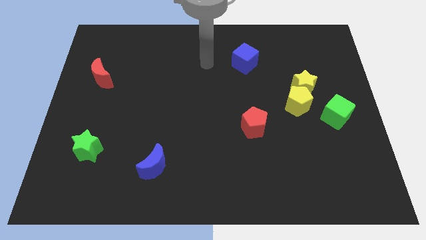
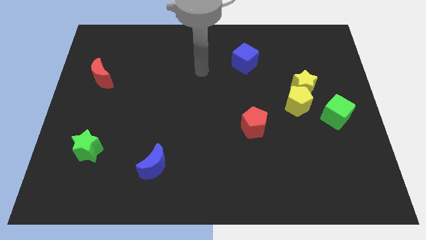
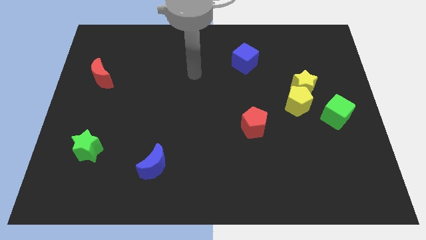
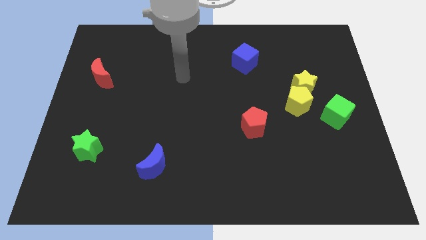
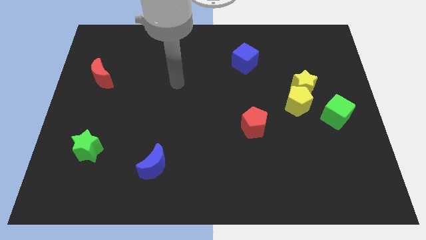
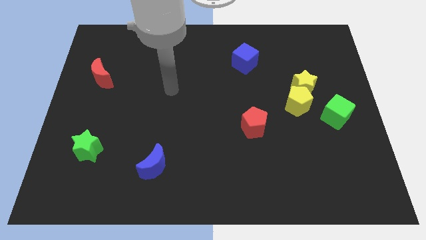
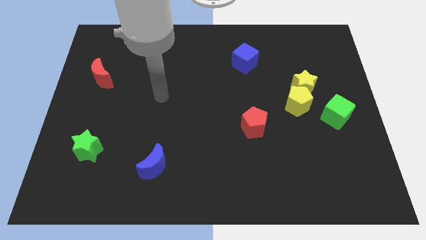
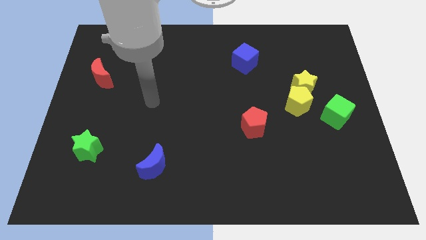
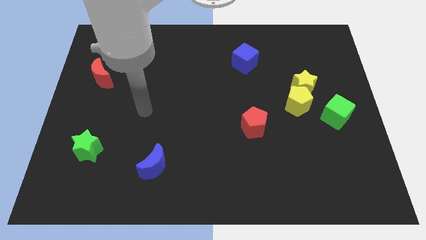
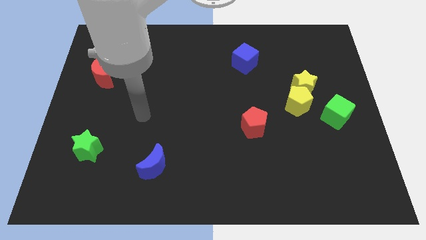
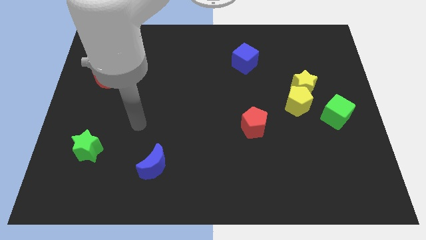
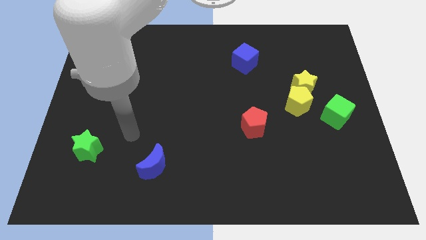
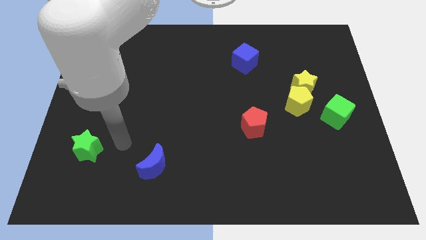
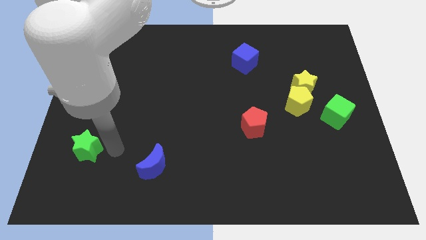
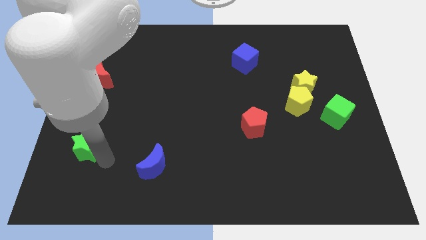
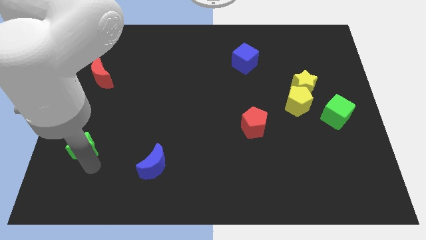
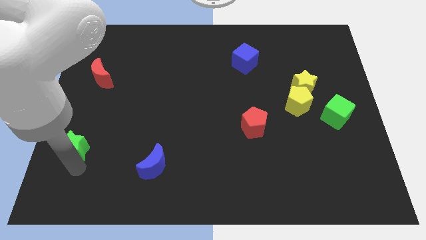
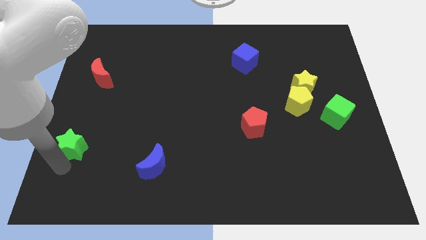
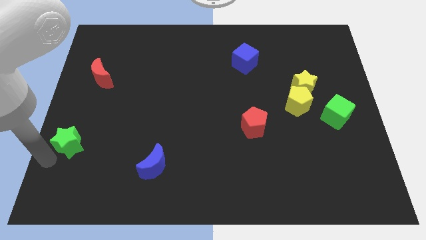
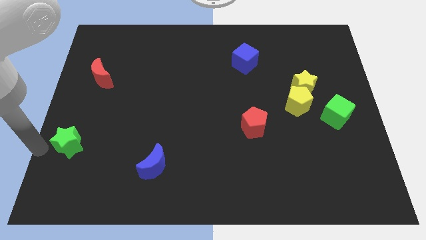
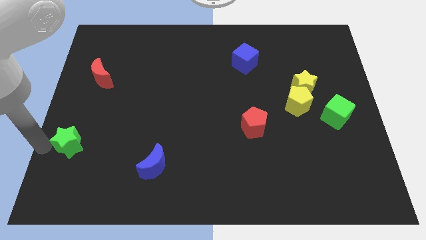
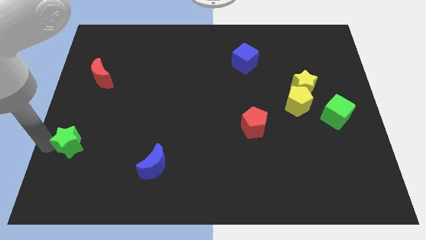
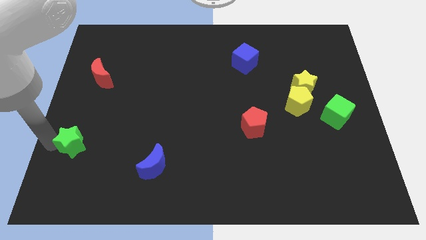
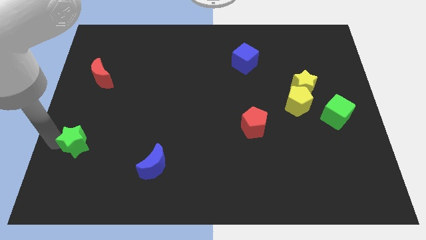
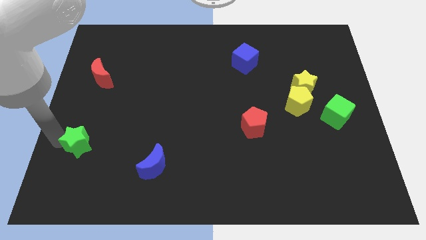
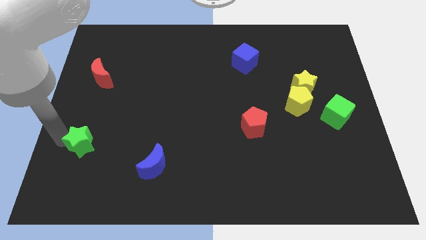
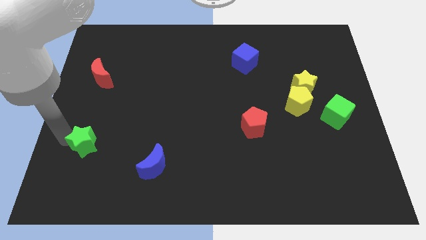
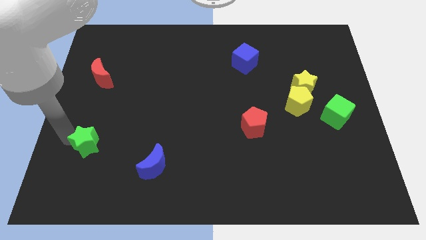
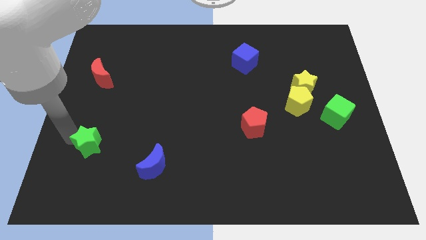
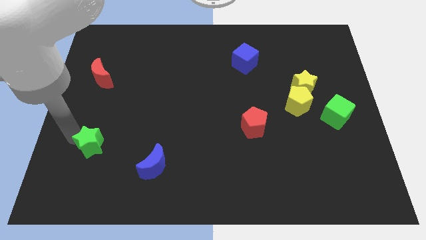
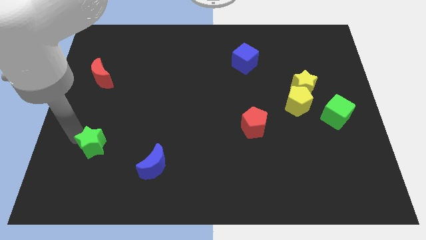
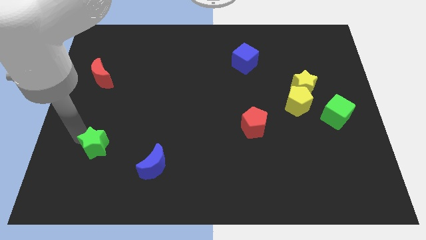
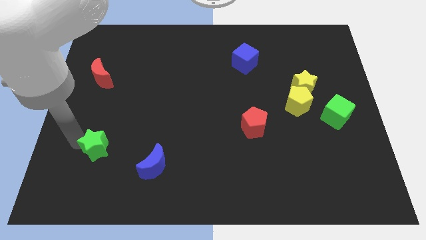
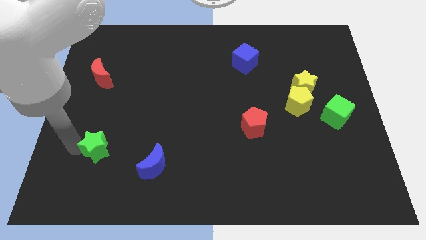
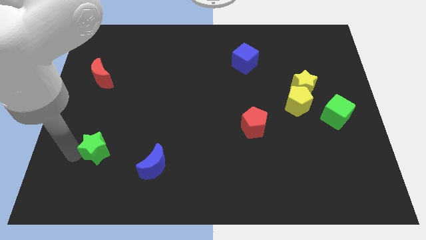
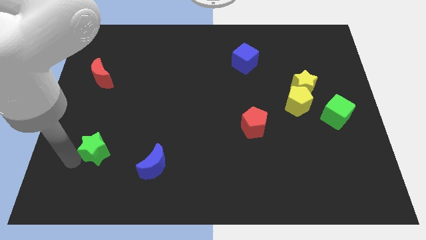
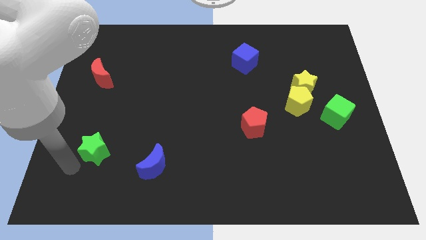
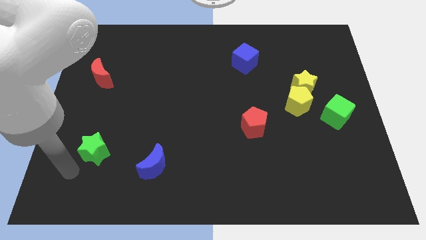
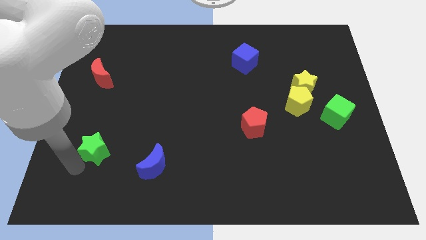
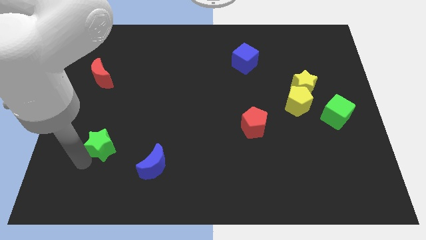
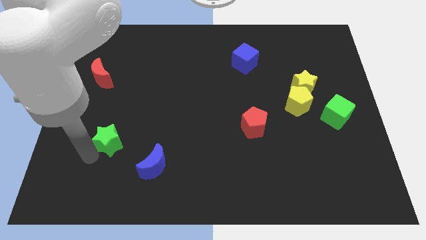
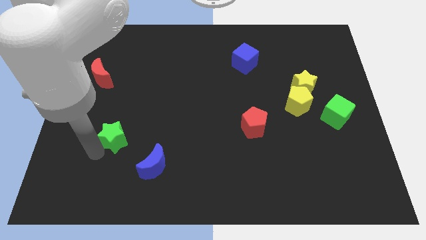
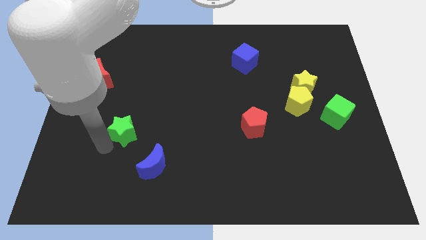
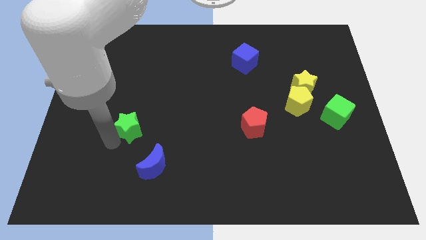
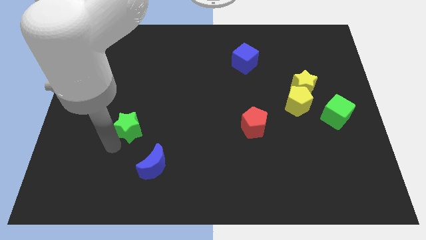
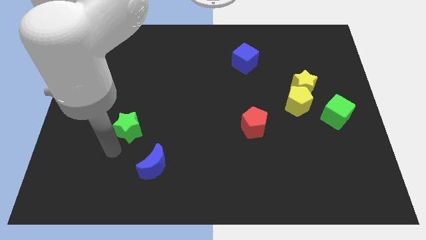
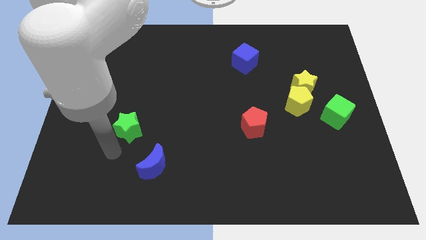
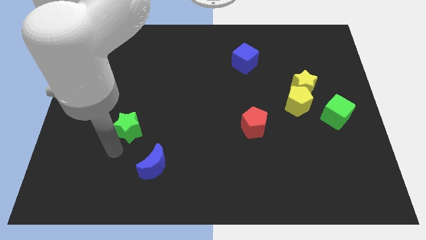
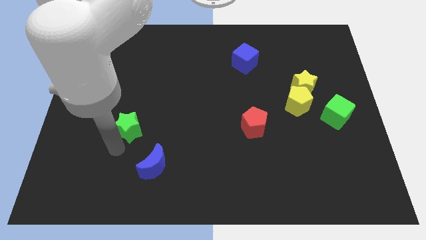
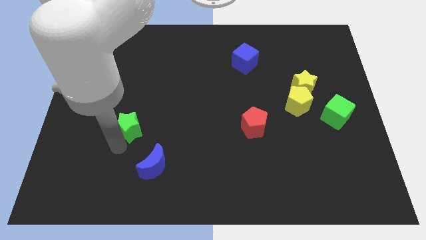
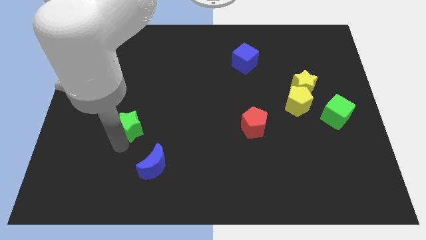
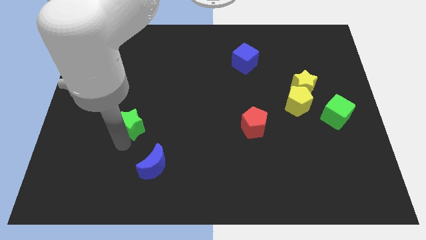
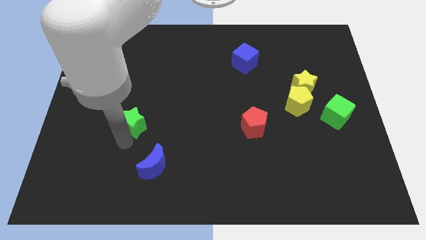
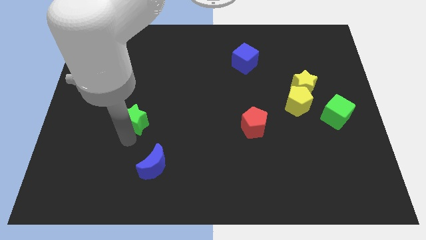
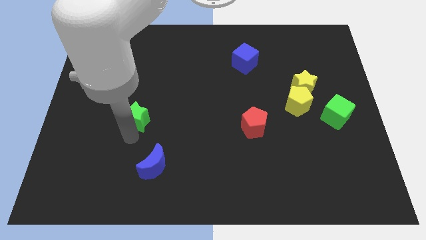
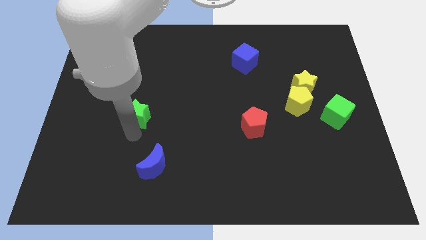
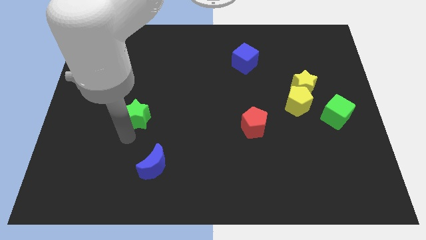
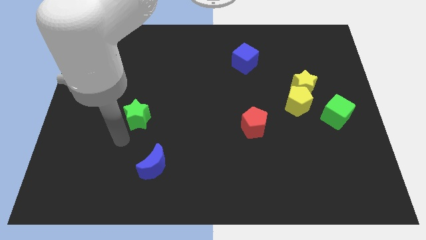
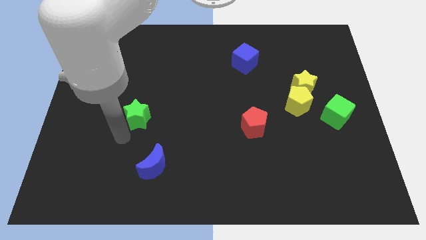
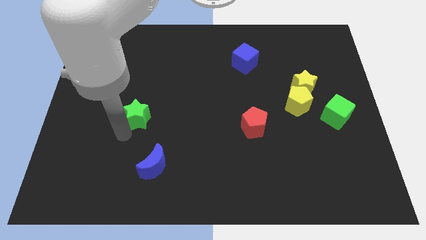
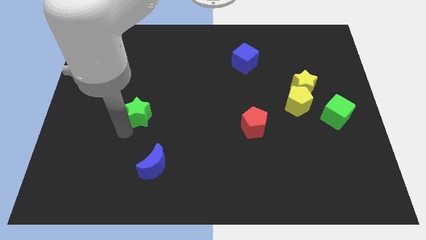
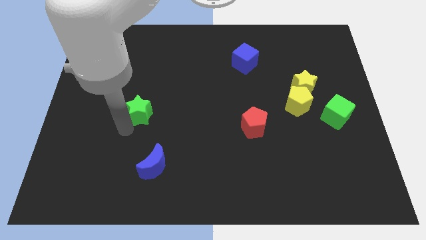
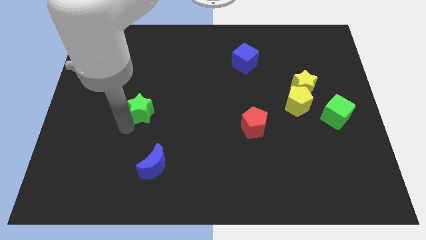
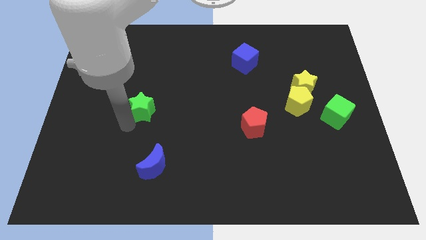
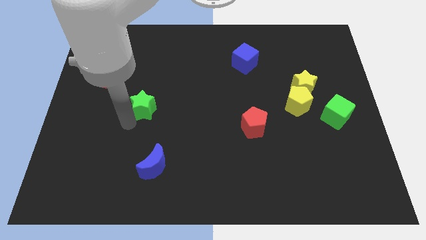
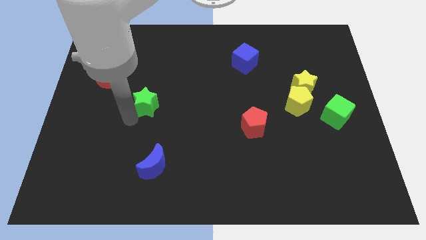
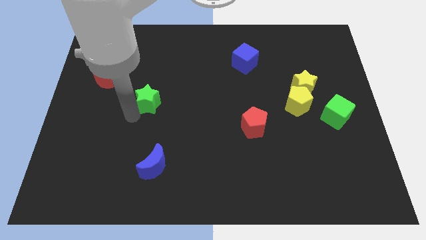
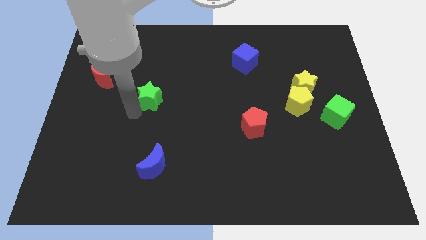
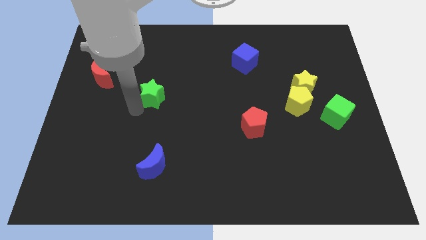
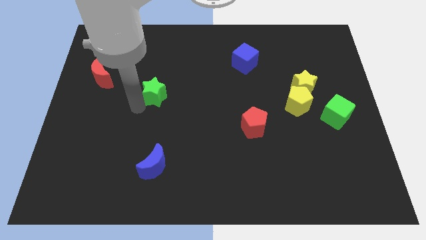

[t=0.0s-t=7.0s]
slide the green star up and then right

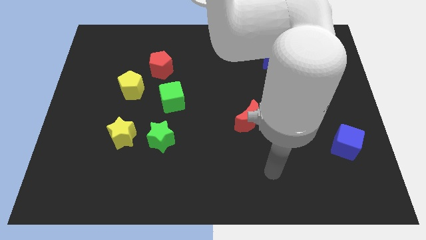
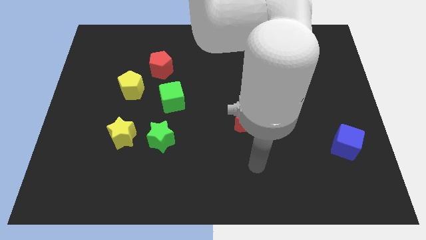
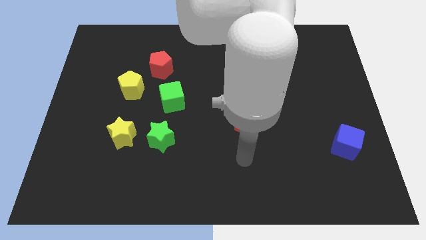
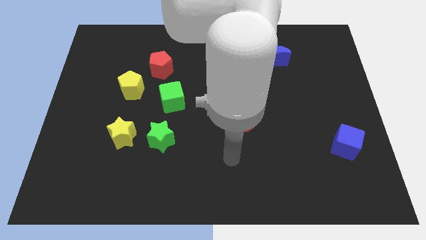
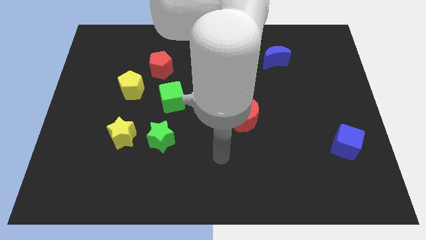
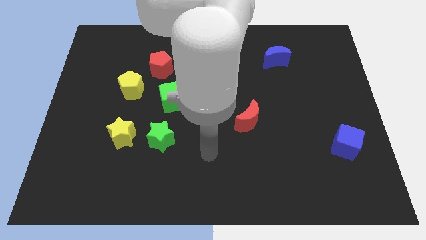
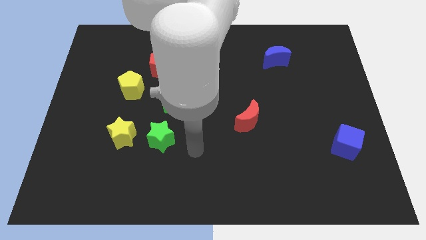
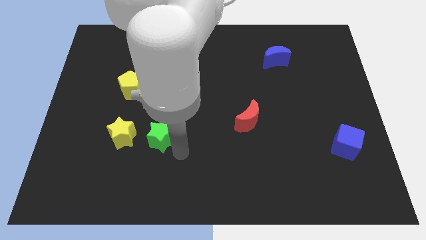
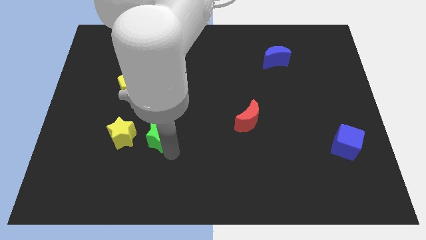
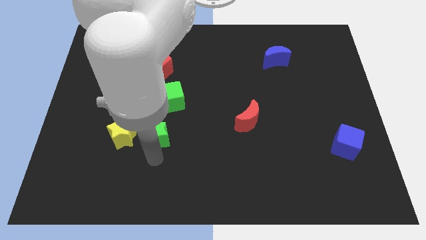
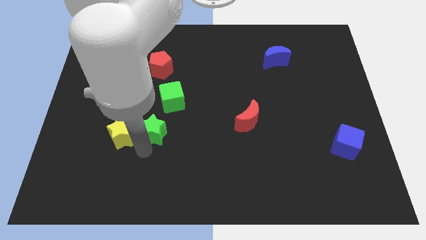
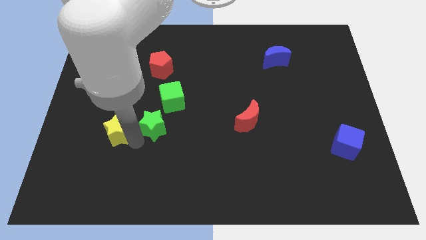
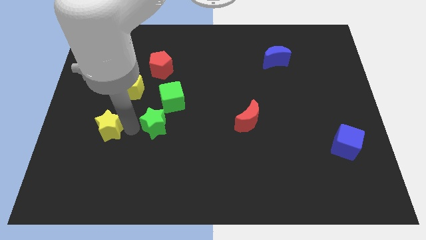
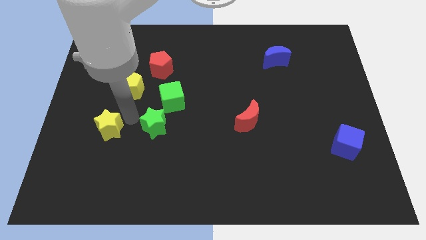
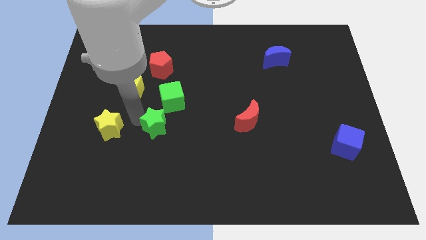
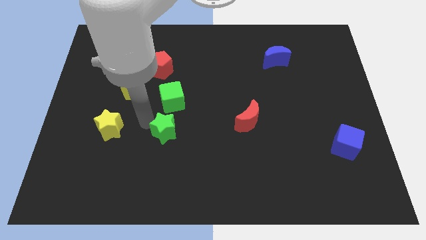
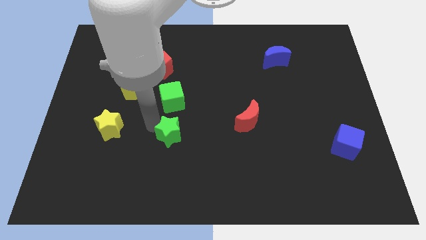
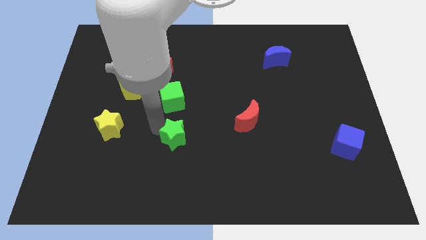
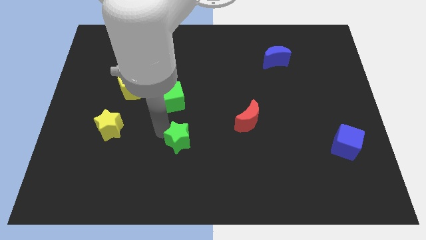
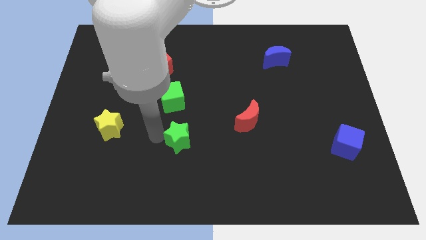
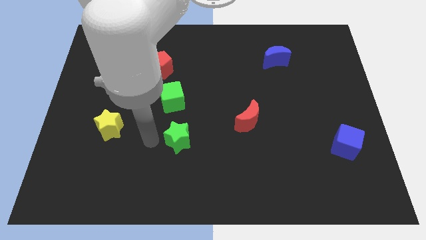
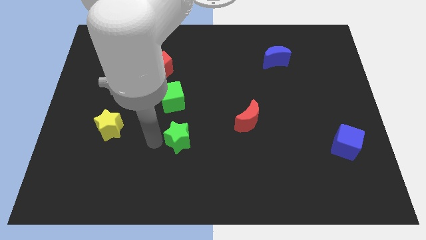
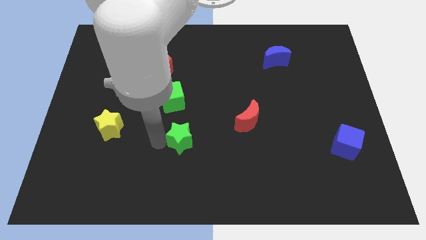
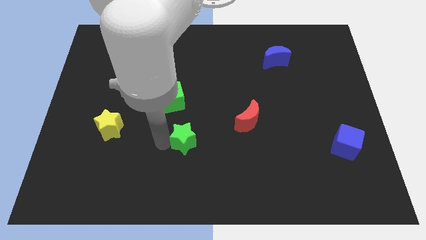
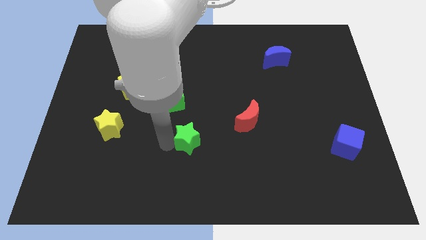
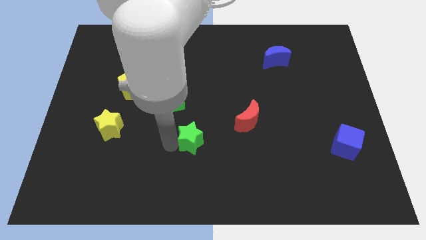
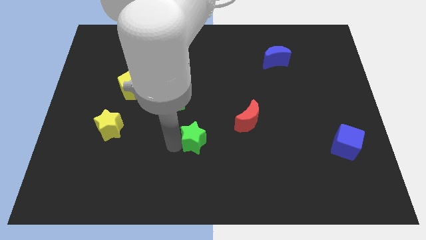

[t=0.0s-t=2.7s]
slightly move the green star right
